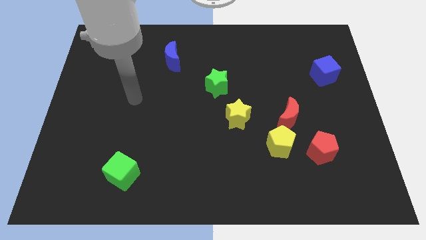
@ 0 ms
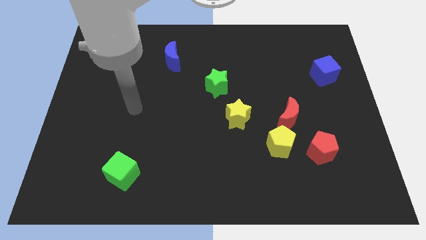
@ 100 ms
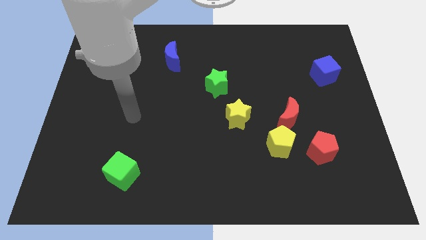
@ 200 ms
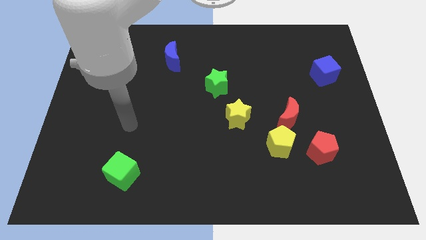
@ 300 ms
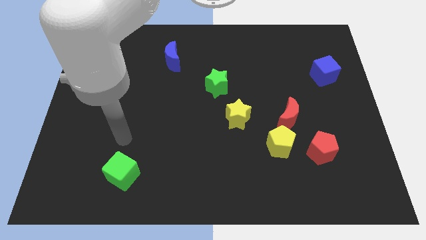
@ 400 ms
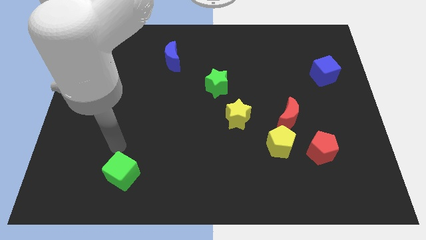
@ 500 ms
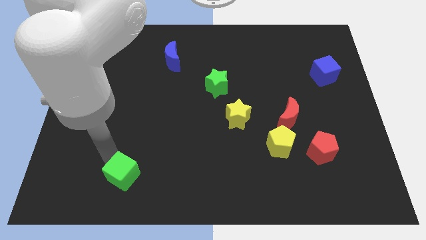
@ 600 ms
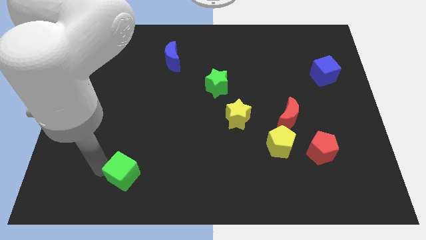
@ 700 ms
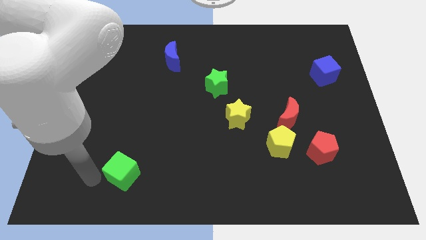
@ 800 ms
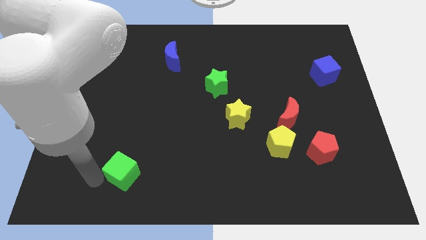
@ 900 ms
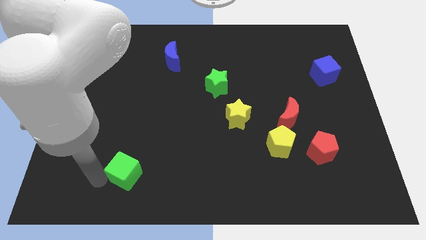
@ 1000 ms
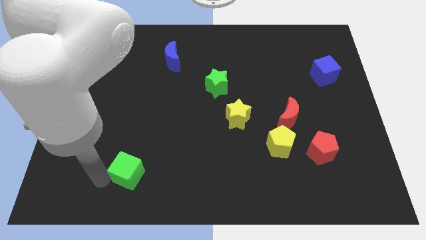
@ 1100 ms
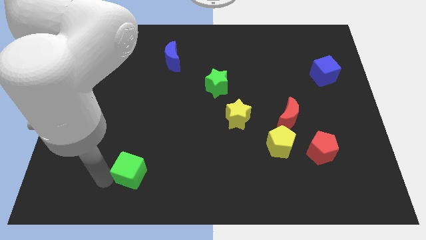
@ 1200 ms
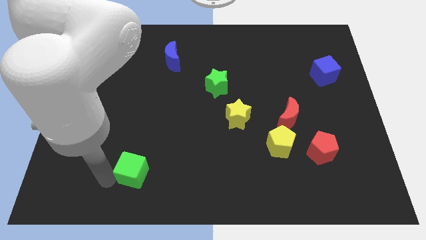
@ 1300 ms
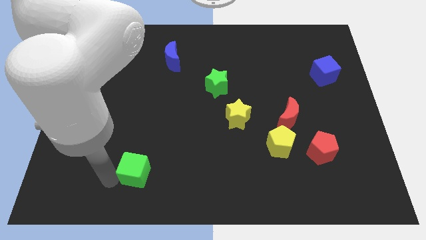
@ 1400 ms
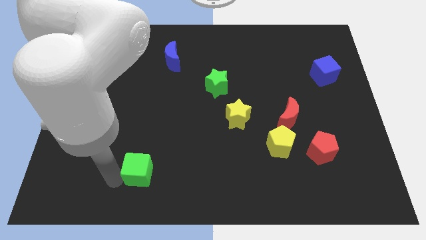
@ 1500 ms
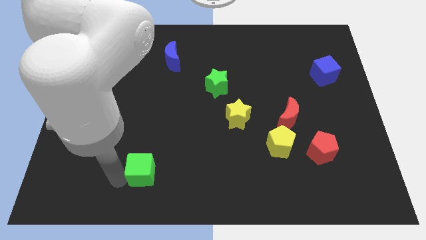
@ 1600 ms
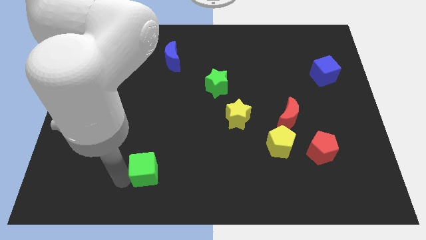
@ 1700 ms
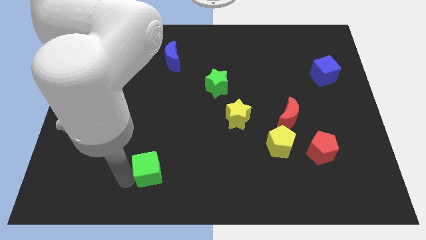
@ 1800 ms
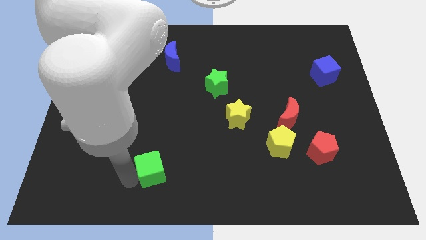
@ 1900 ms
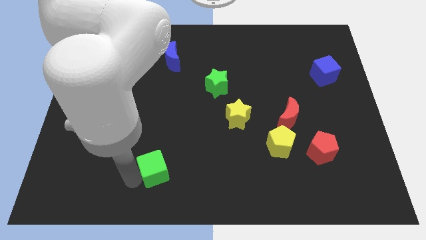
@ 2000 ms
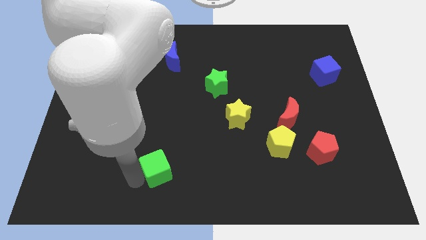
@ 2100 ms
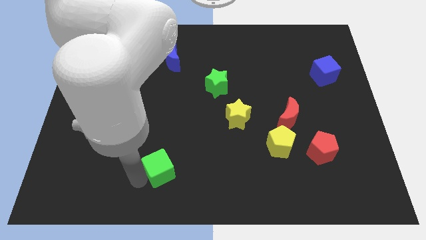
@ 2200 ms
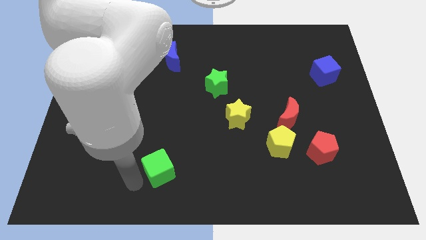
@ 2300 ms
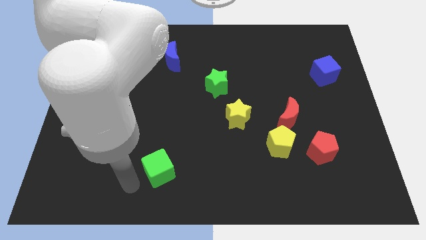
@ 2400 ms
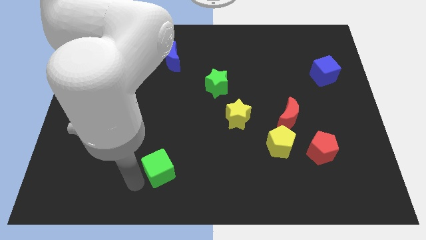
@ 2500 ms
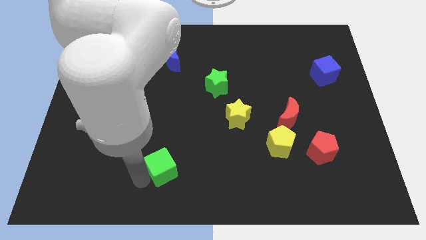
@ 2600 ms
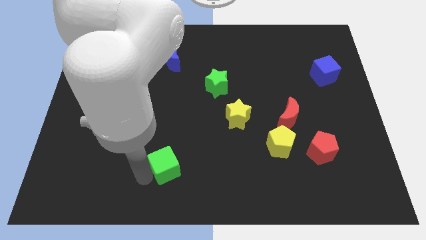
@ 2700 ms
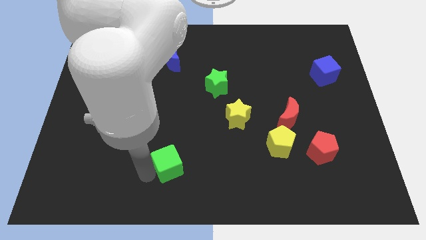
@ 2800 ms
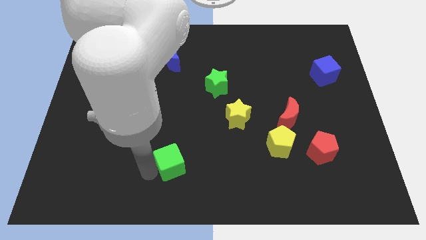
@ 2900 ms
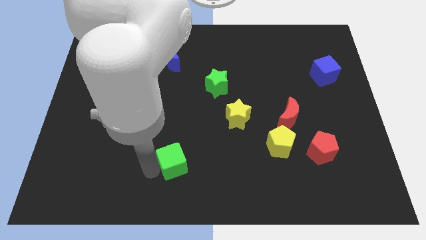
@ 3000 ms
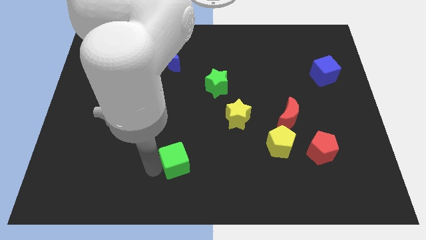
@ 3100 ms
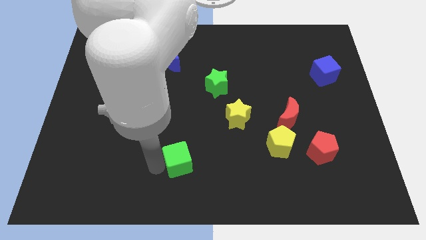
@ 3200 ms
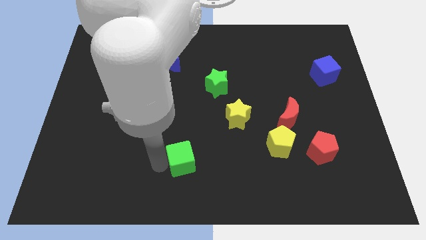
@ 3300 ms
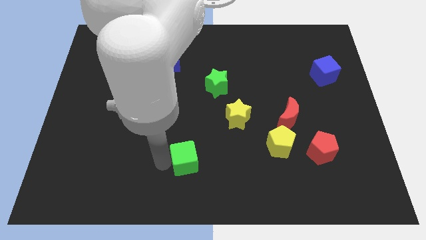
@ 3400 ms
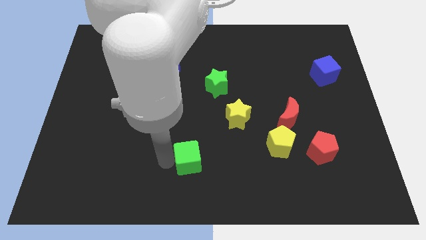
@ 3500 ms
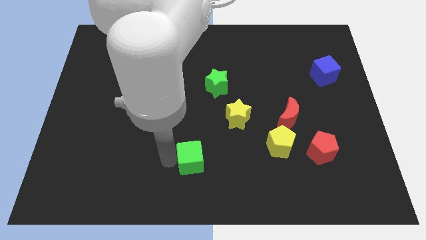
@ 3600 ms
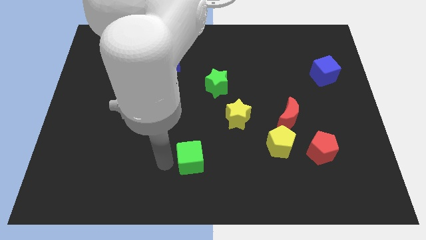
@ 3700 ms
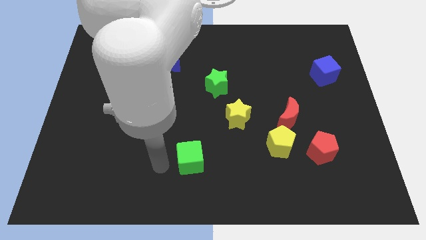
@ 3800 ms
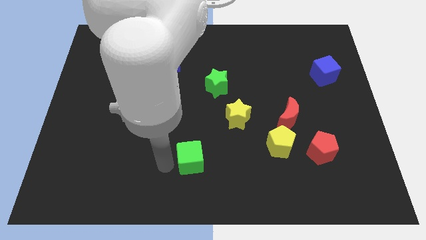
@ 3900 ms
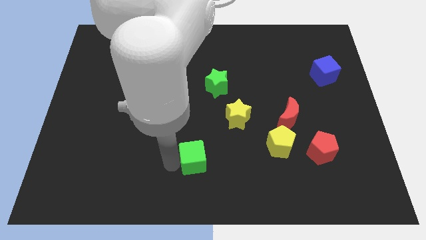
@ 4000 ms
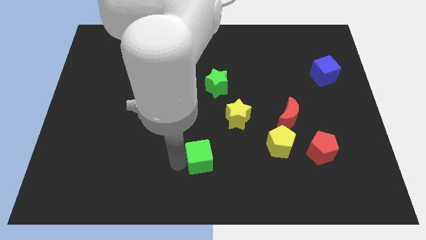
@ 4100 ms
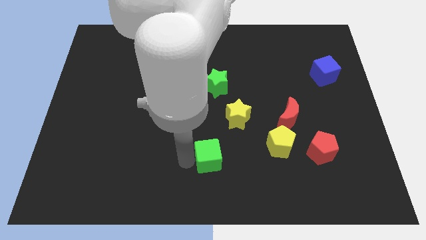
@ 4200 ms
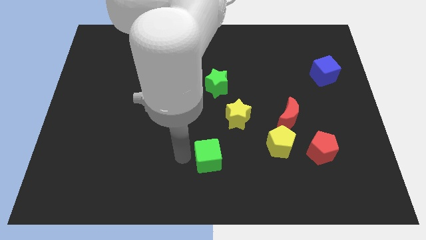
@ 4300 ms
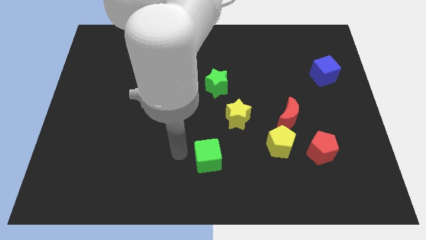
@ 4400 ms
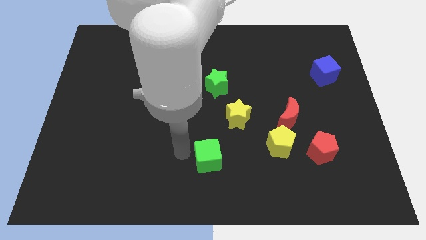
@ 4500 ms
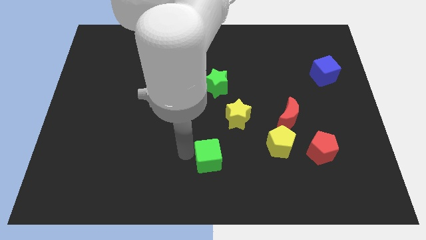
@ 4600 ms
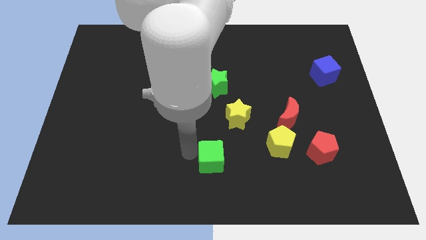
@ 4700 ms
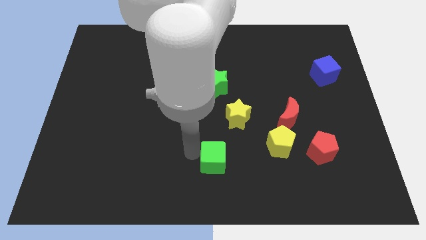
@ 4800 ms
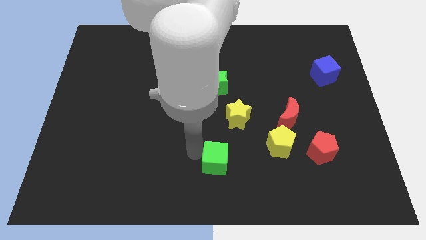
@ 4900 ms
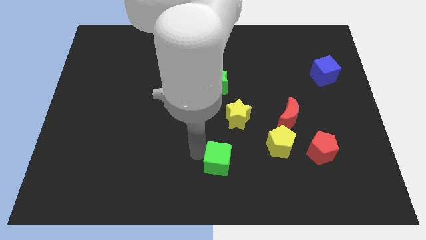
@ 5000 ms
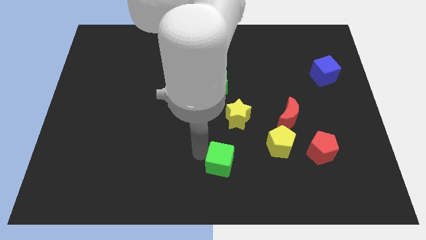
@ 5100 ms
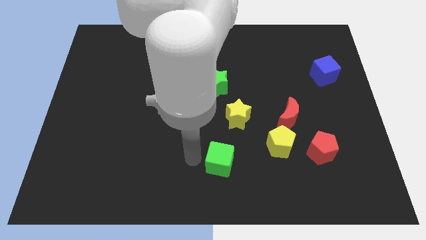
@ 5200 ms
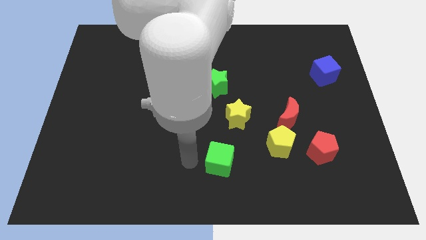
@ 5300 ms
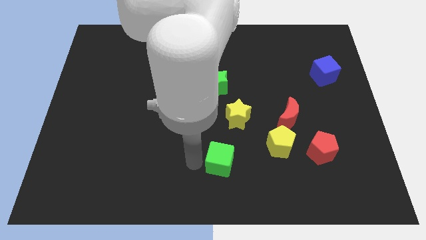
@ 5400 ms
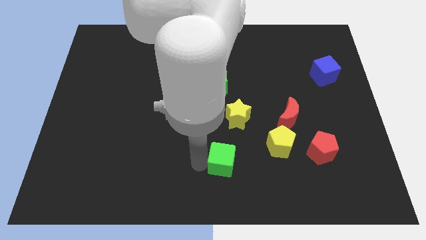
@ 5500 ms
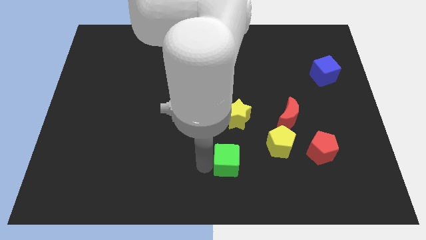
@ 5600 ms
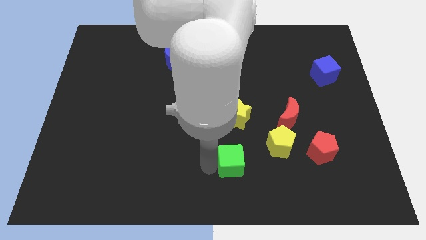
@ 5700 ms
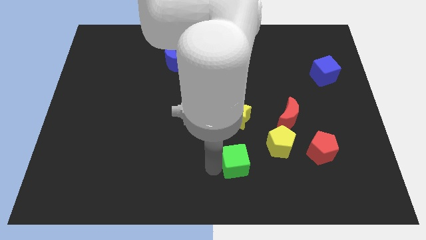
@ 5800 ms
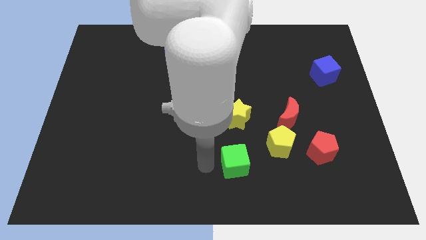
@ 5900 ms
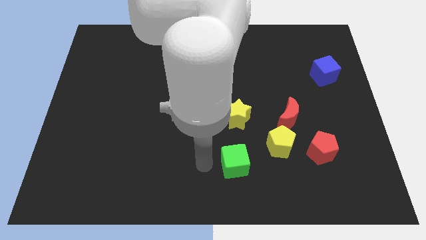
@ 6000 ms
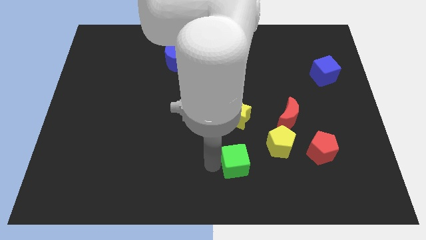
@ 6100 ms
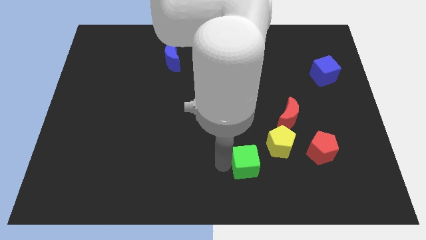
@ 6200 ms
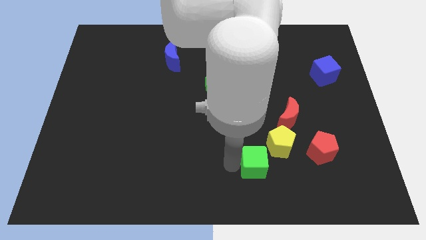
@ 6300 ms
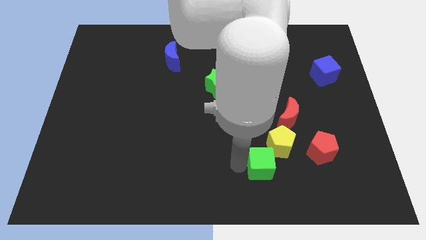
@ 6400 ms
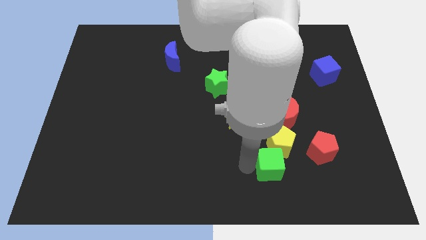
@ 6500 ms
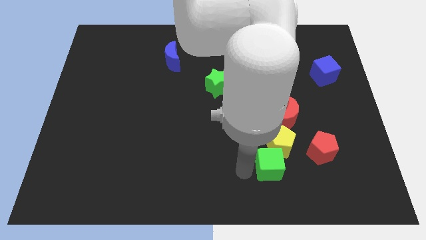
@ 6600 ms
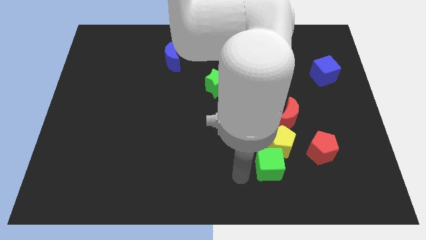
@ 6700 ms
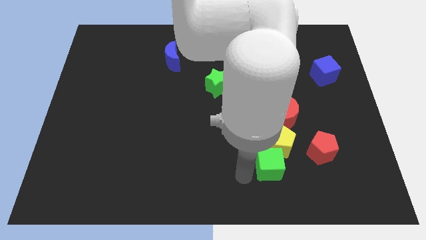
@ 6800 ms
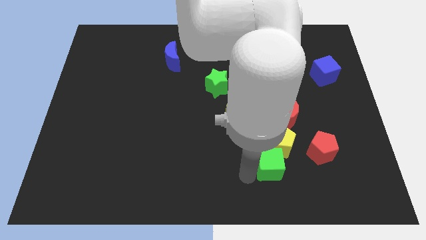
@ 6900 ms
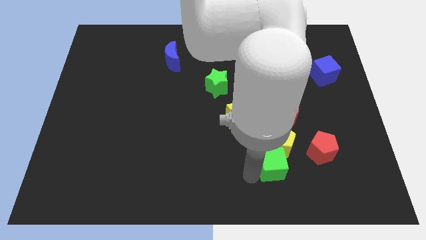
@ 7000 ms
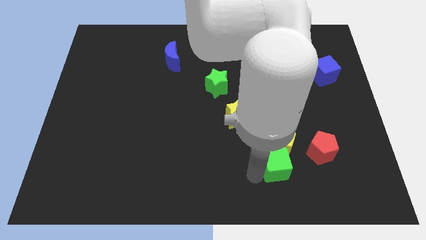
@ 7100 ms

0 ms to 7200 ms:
slide the green cube below the red moon
